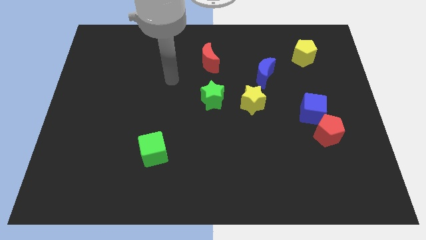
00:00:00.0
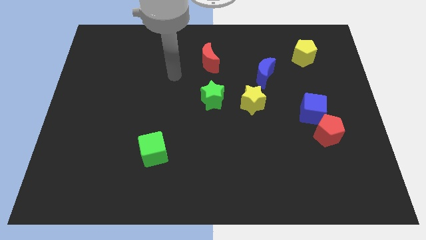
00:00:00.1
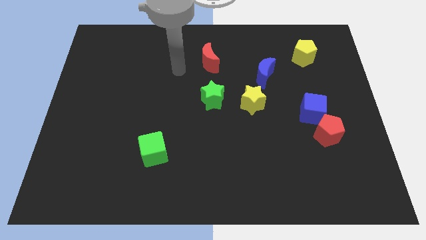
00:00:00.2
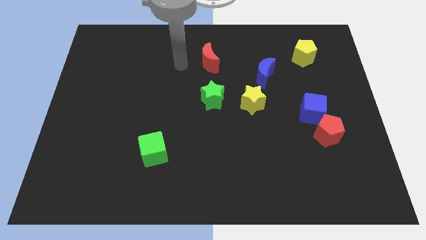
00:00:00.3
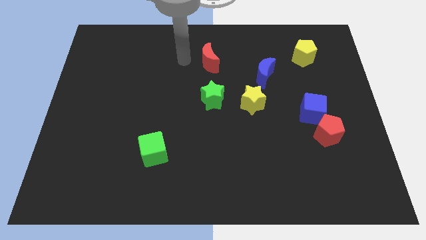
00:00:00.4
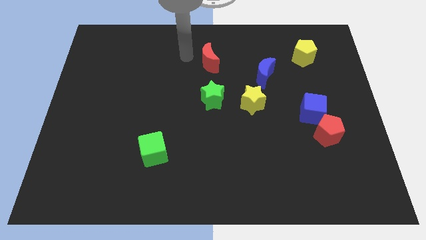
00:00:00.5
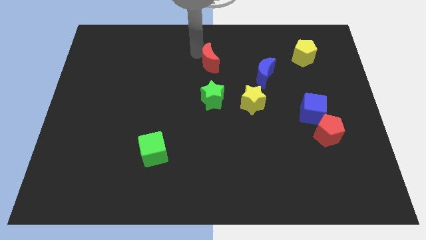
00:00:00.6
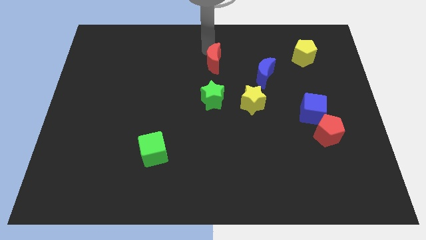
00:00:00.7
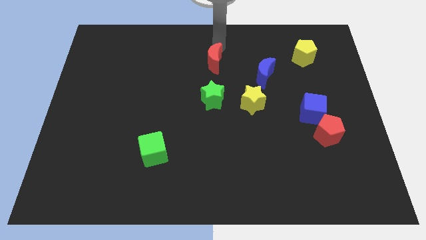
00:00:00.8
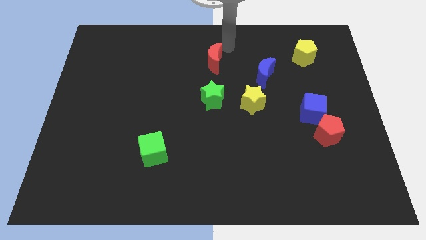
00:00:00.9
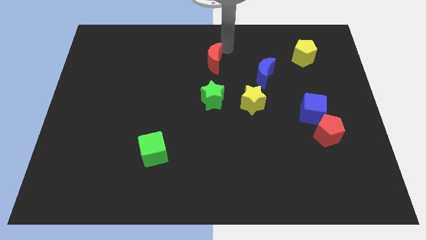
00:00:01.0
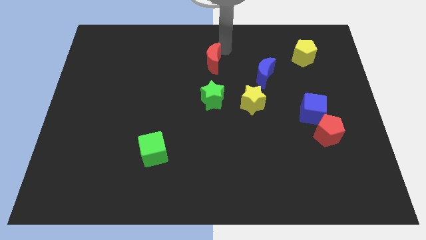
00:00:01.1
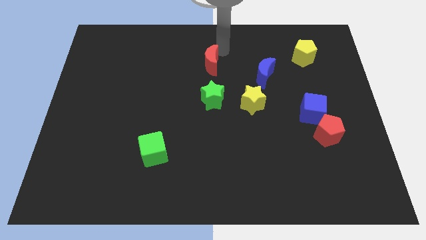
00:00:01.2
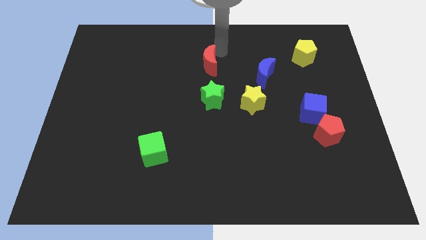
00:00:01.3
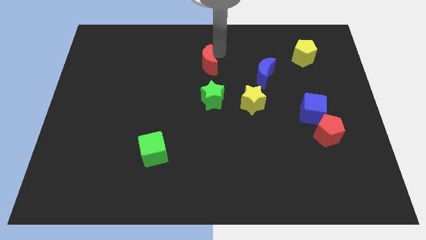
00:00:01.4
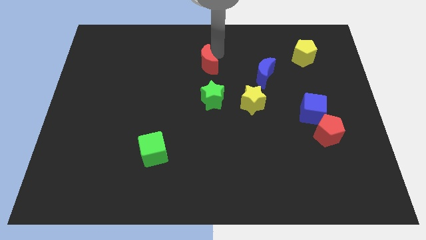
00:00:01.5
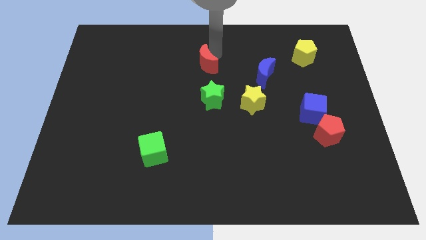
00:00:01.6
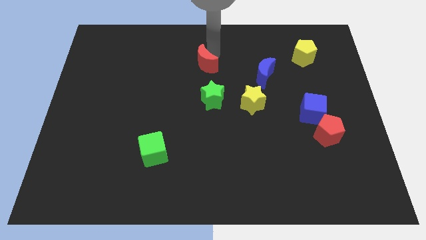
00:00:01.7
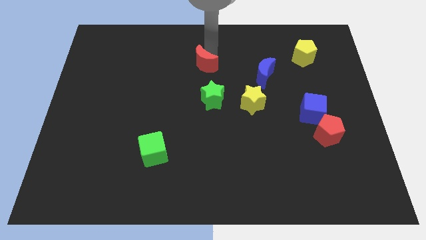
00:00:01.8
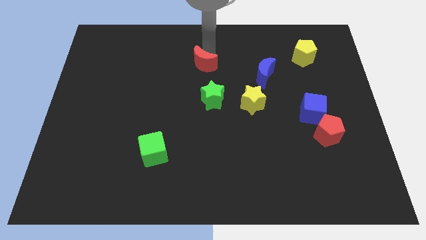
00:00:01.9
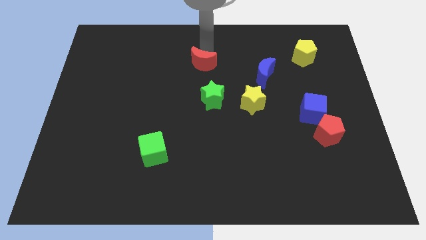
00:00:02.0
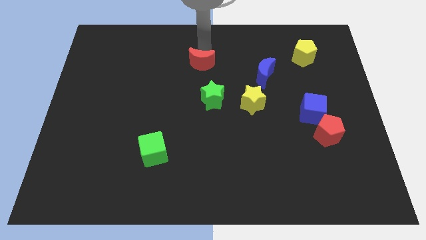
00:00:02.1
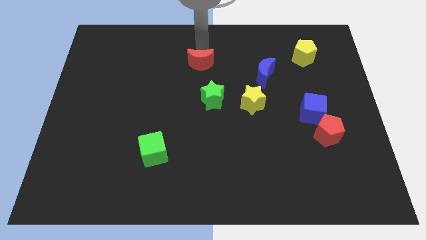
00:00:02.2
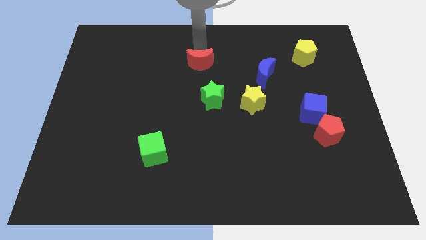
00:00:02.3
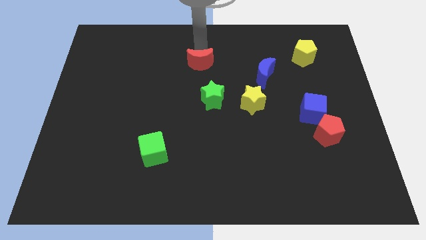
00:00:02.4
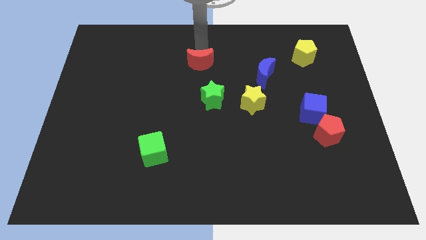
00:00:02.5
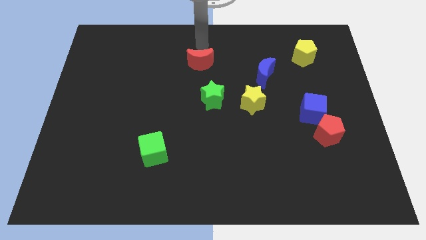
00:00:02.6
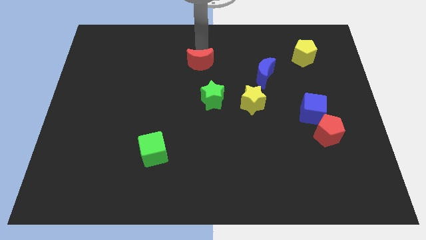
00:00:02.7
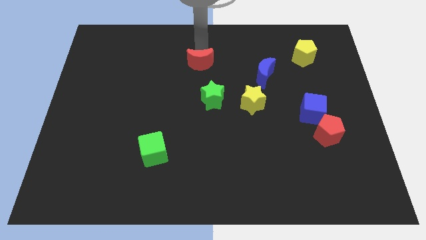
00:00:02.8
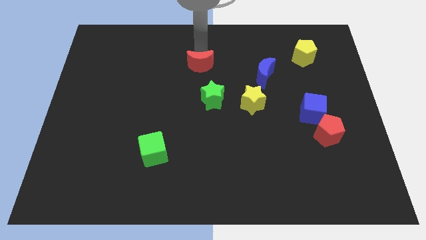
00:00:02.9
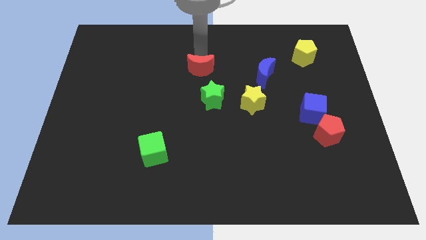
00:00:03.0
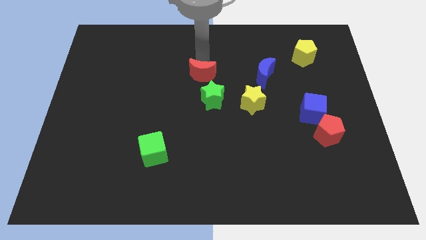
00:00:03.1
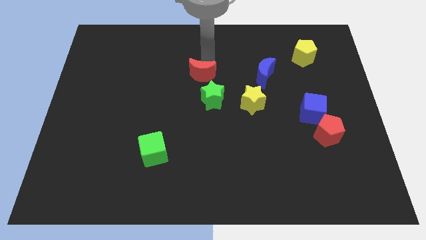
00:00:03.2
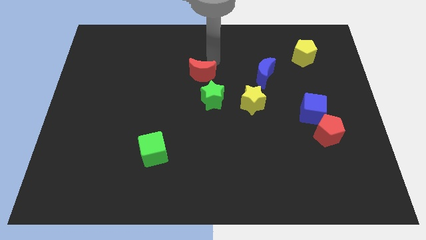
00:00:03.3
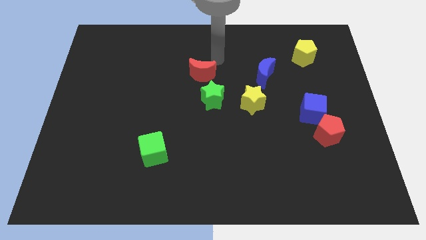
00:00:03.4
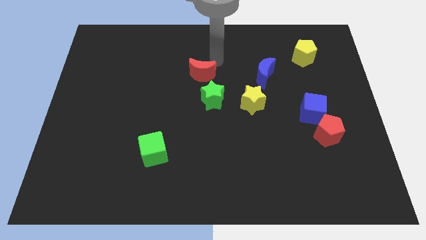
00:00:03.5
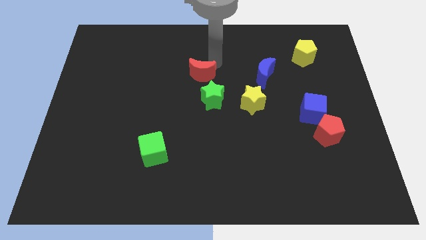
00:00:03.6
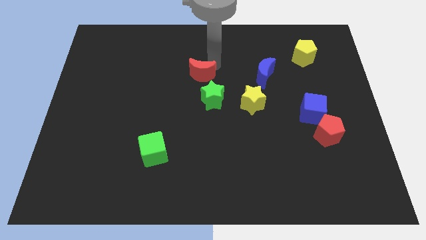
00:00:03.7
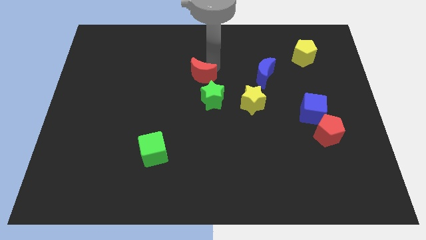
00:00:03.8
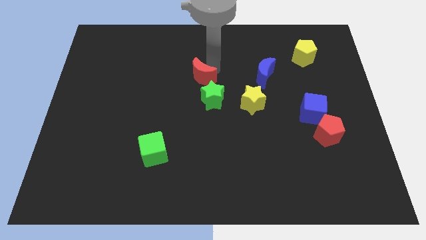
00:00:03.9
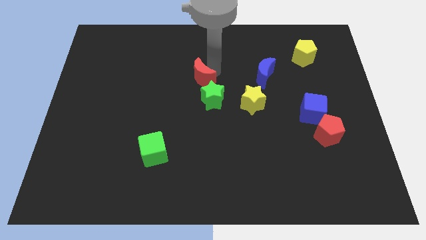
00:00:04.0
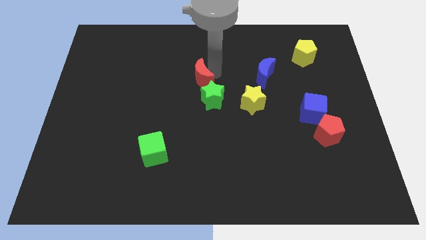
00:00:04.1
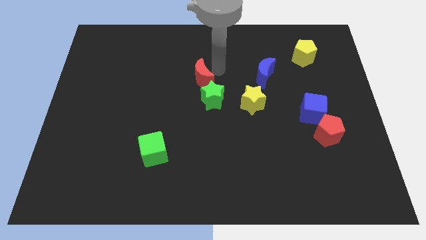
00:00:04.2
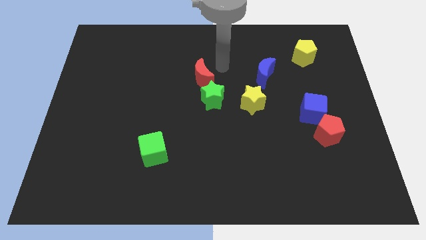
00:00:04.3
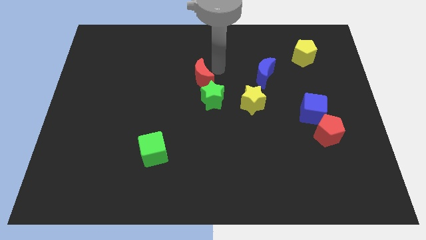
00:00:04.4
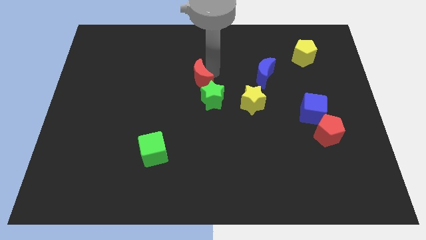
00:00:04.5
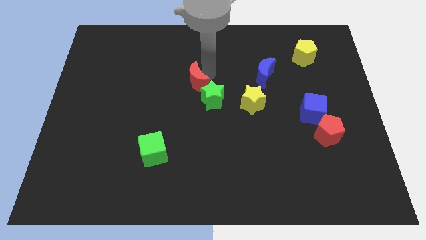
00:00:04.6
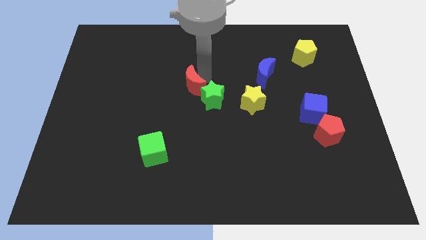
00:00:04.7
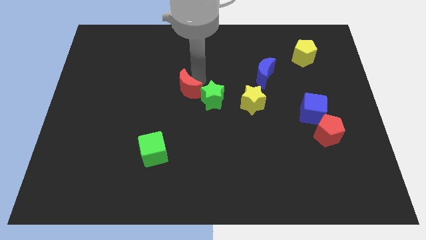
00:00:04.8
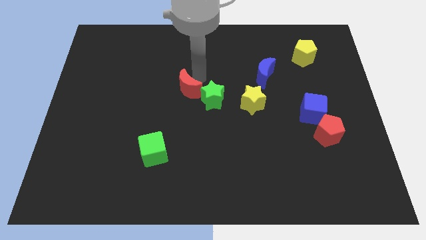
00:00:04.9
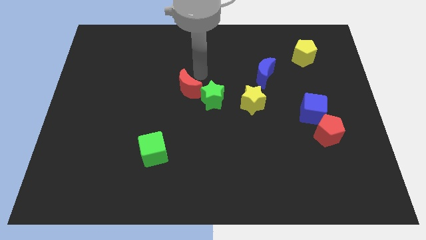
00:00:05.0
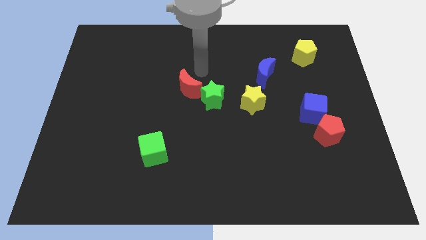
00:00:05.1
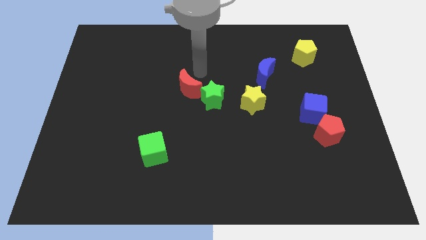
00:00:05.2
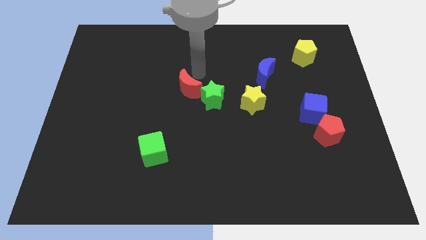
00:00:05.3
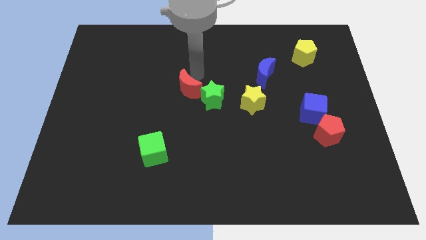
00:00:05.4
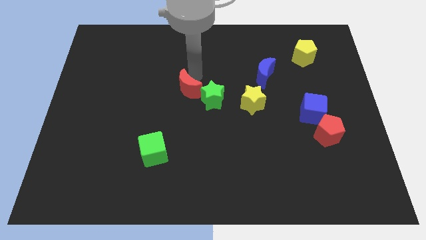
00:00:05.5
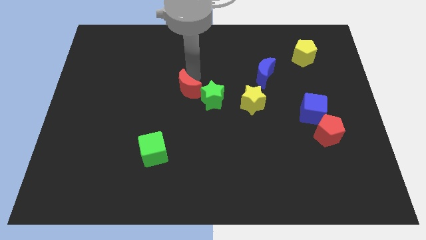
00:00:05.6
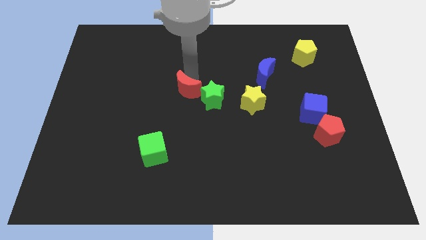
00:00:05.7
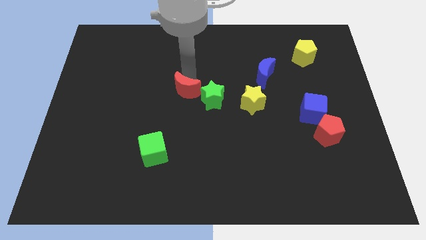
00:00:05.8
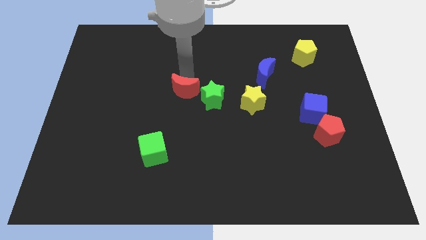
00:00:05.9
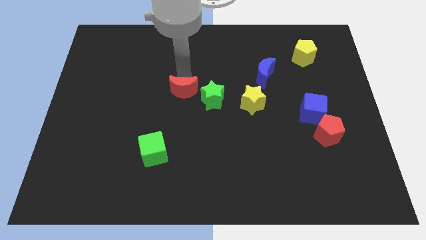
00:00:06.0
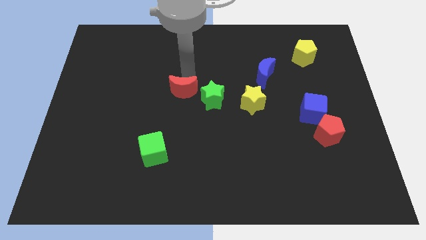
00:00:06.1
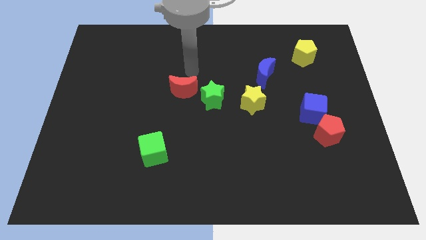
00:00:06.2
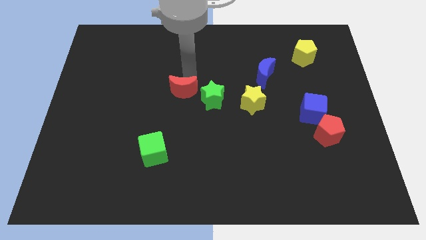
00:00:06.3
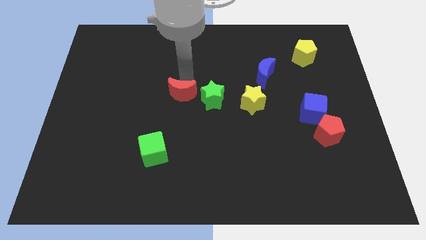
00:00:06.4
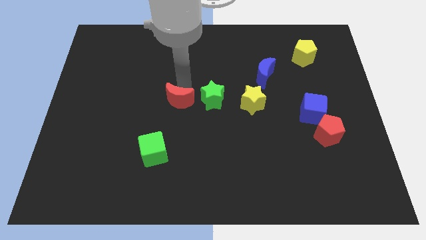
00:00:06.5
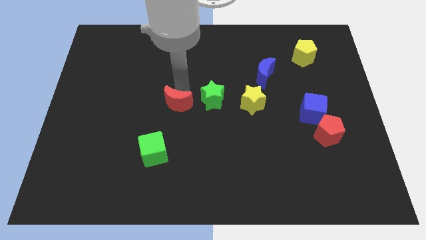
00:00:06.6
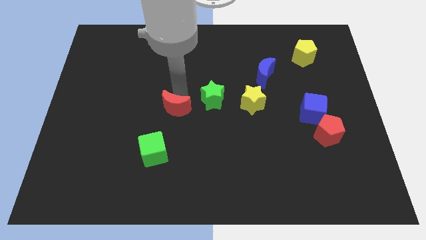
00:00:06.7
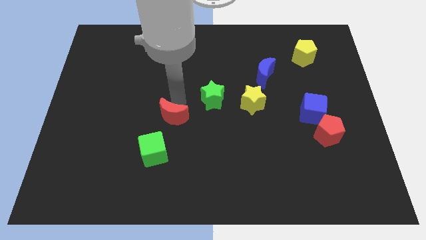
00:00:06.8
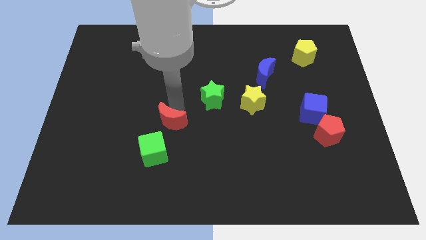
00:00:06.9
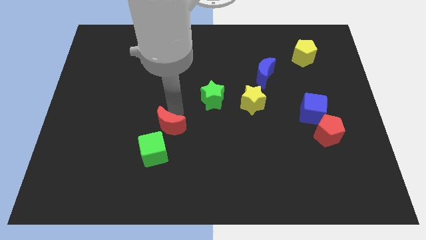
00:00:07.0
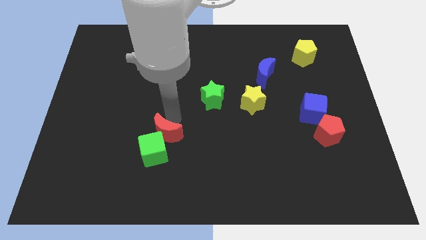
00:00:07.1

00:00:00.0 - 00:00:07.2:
slide the red moon to the green cube
